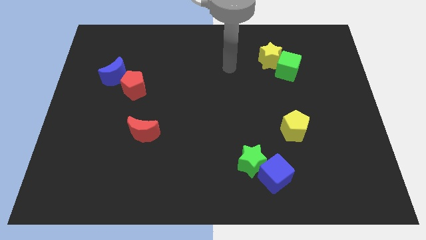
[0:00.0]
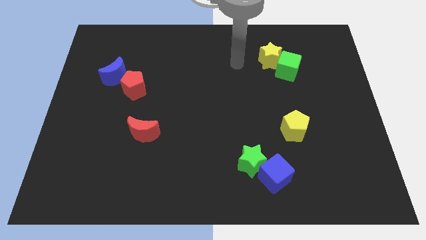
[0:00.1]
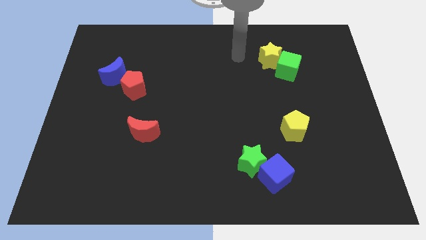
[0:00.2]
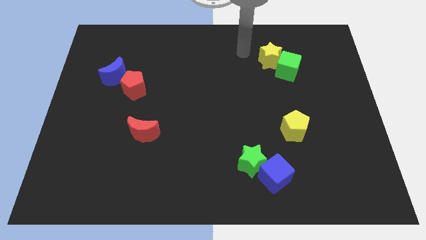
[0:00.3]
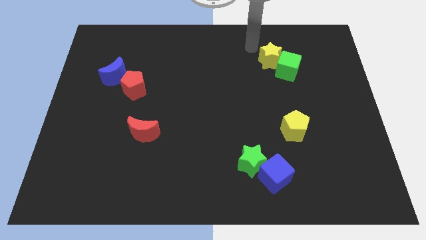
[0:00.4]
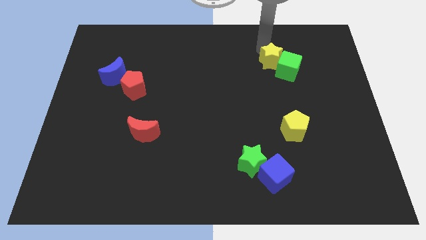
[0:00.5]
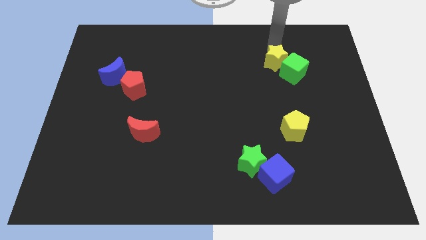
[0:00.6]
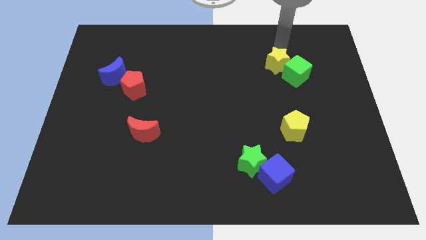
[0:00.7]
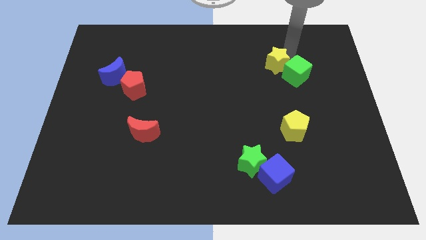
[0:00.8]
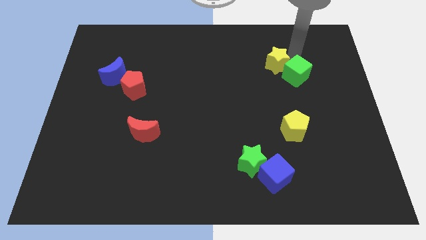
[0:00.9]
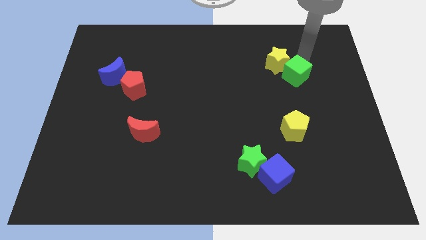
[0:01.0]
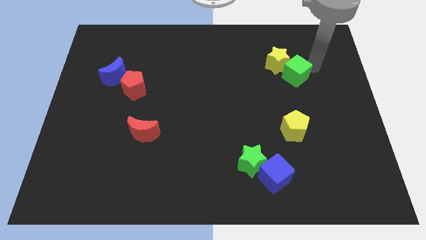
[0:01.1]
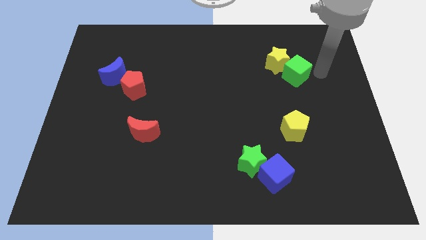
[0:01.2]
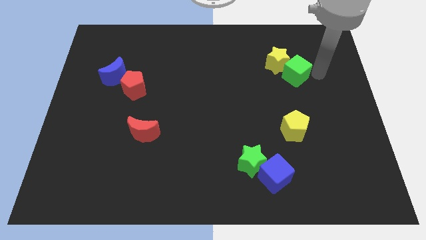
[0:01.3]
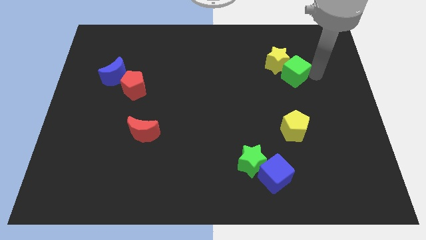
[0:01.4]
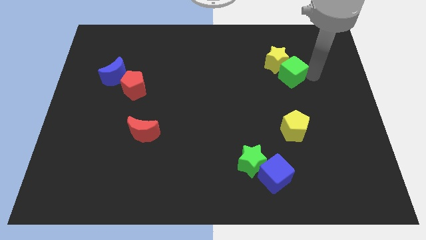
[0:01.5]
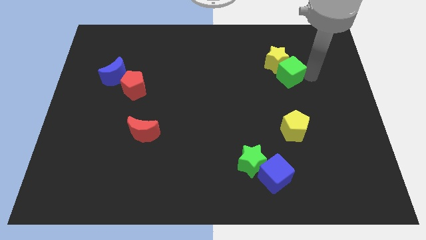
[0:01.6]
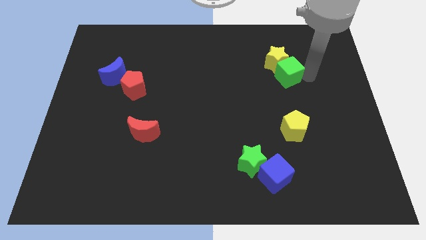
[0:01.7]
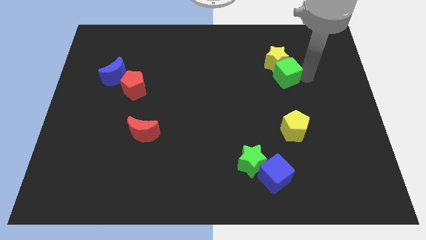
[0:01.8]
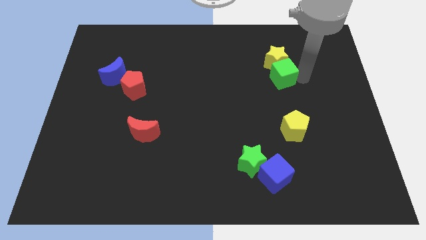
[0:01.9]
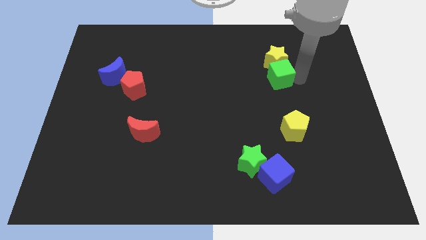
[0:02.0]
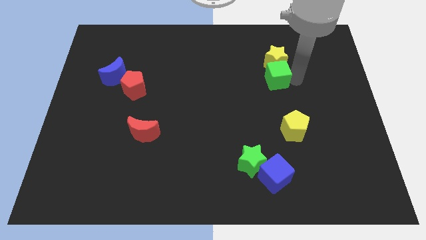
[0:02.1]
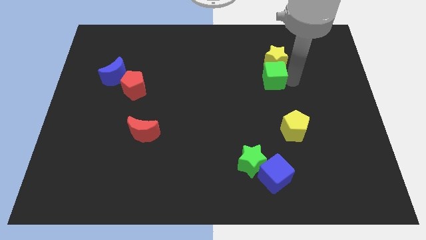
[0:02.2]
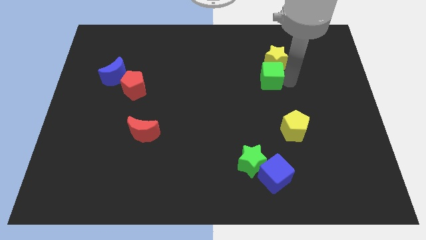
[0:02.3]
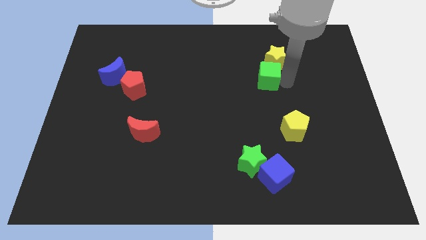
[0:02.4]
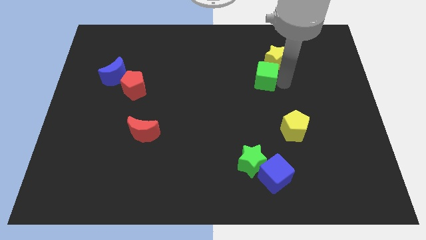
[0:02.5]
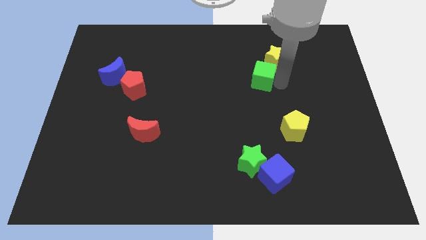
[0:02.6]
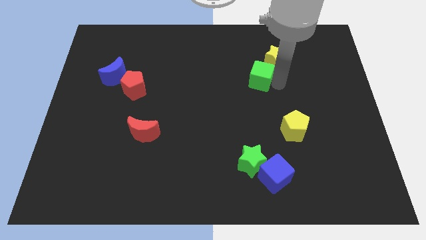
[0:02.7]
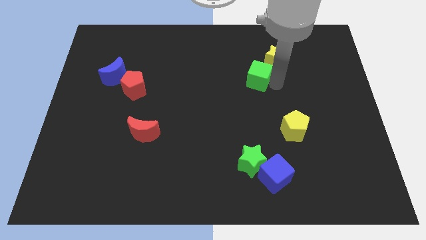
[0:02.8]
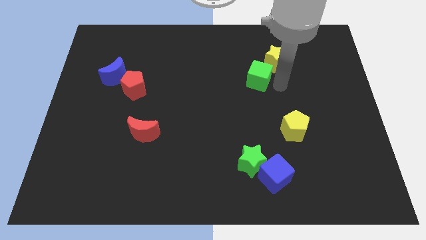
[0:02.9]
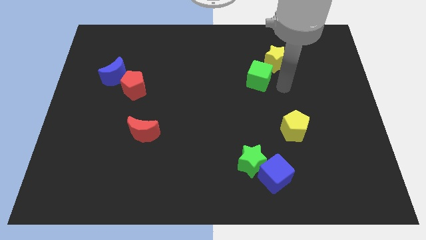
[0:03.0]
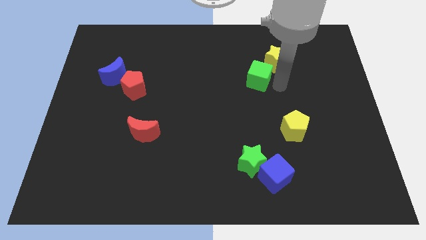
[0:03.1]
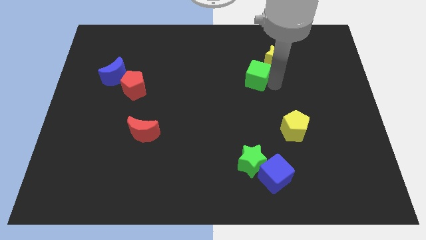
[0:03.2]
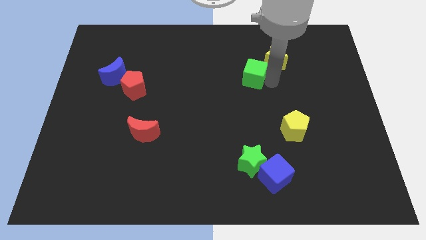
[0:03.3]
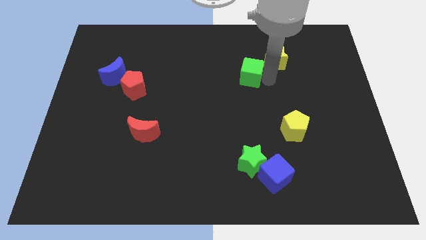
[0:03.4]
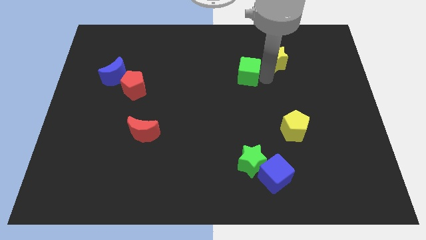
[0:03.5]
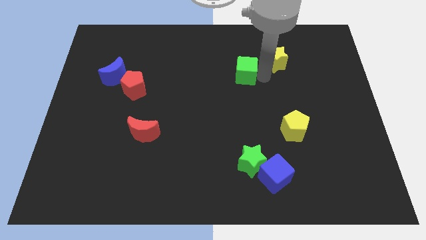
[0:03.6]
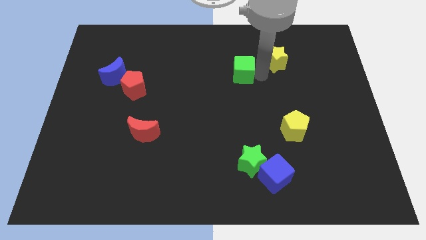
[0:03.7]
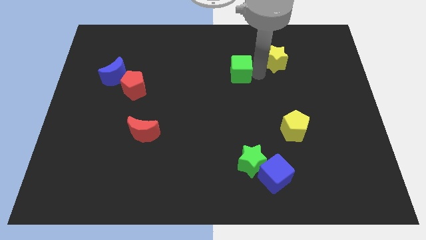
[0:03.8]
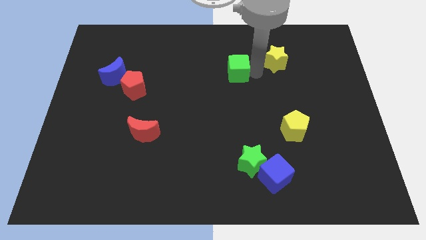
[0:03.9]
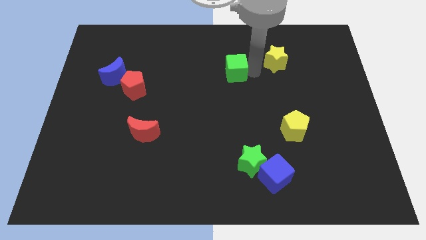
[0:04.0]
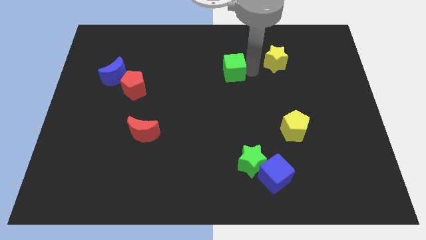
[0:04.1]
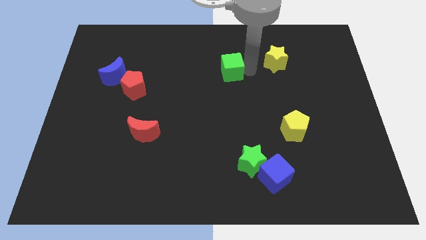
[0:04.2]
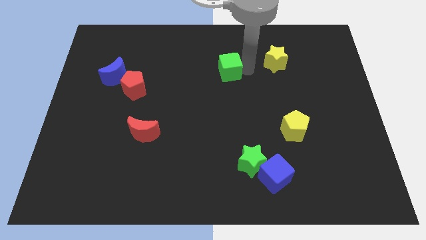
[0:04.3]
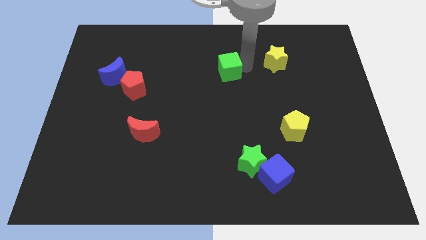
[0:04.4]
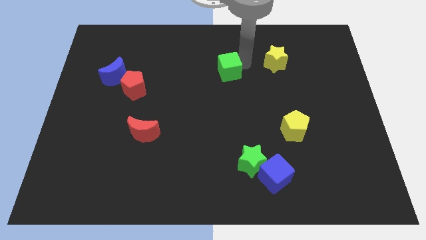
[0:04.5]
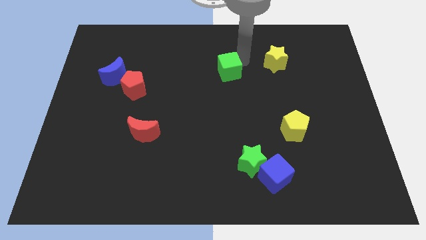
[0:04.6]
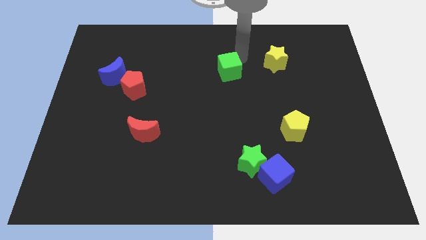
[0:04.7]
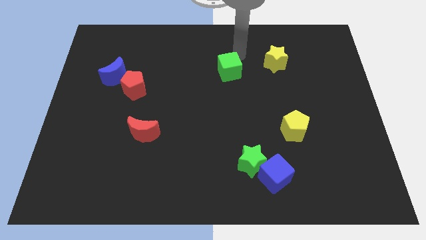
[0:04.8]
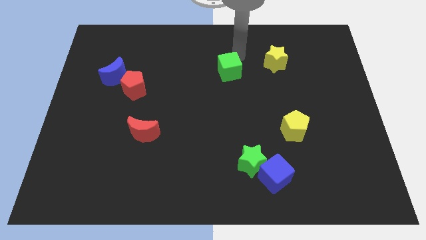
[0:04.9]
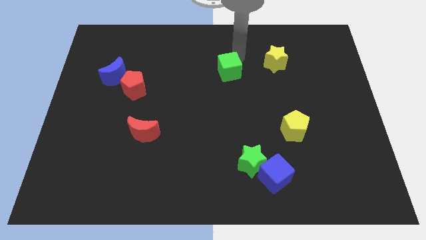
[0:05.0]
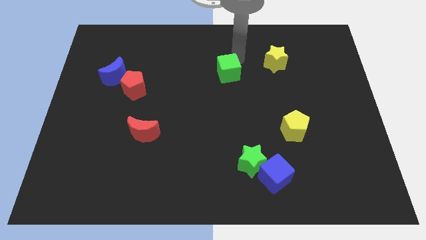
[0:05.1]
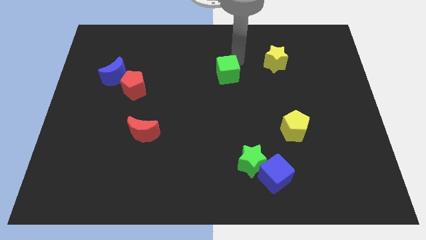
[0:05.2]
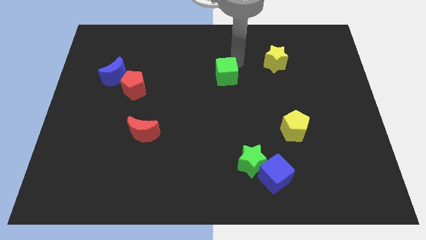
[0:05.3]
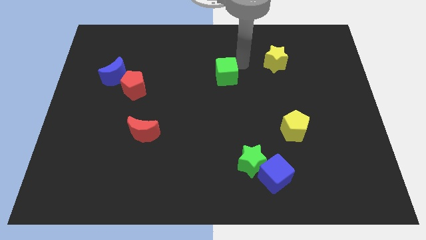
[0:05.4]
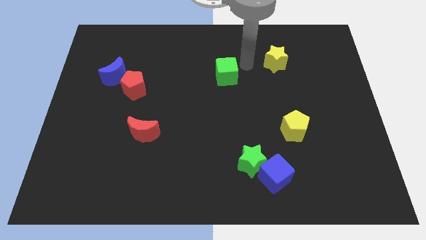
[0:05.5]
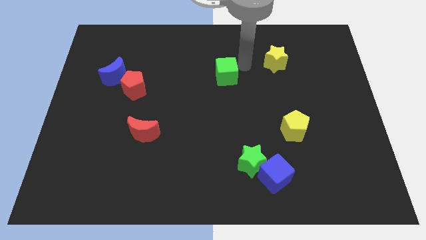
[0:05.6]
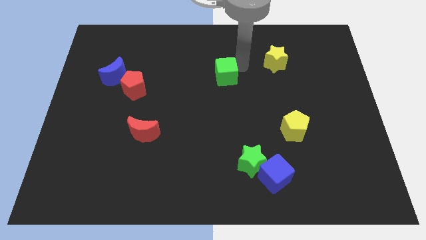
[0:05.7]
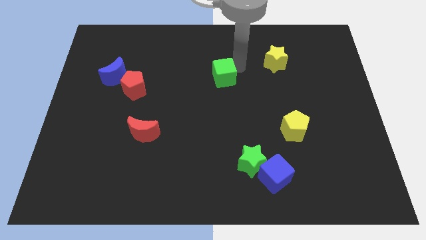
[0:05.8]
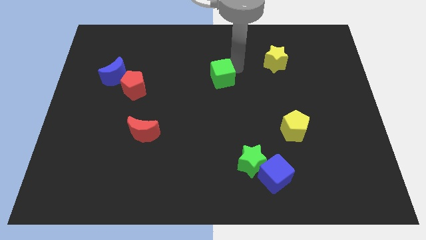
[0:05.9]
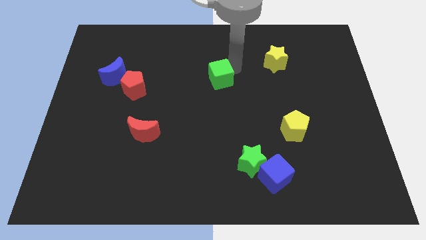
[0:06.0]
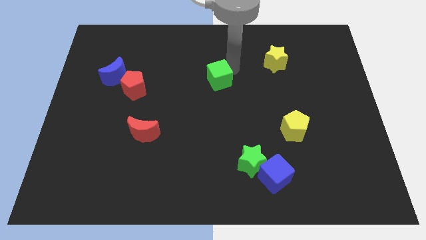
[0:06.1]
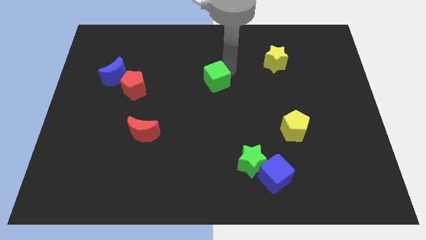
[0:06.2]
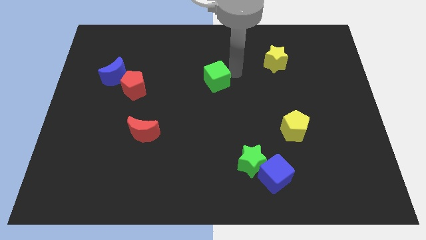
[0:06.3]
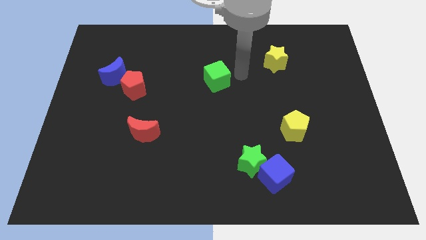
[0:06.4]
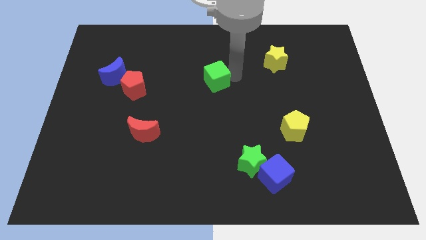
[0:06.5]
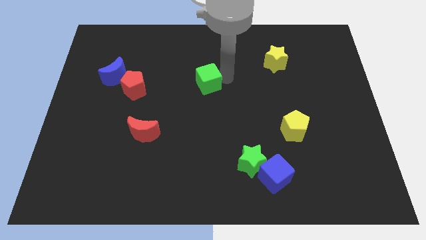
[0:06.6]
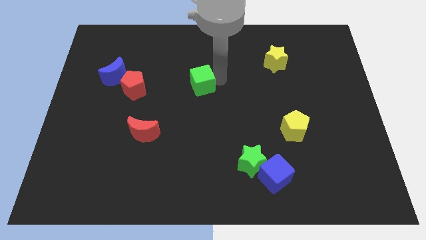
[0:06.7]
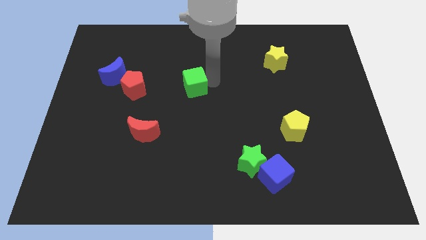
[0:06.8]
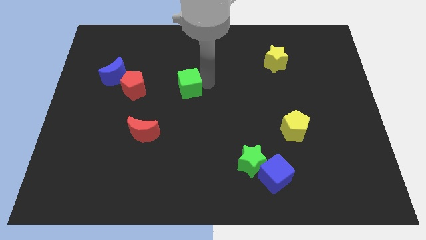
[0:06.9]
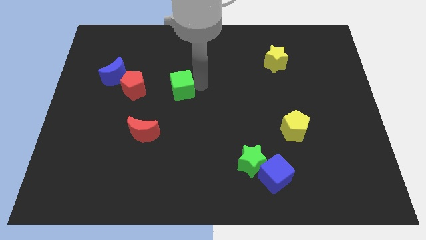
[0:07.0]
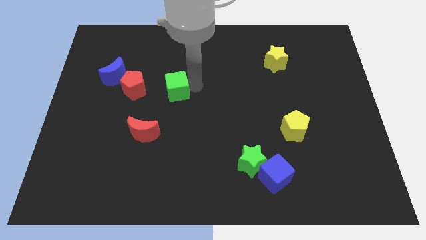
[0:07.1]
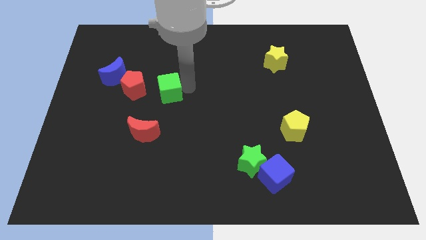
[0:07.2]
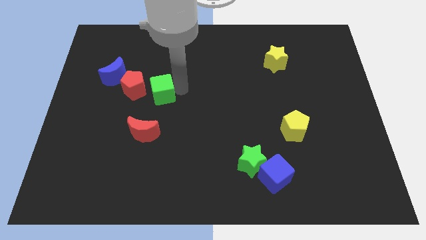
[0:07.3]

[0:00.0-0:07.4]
slide the green cube to the top side of the red moon
